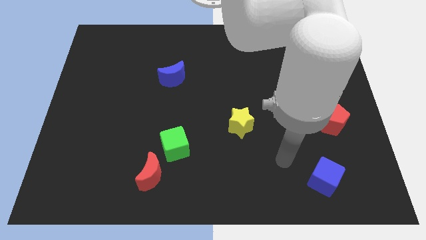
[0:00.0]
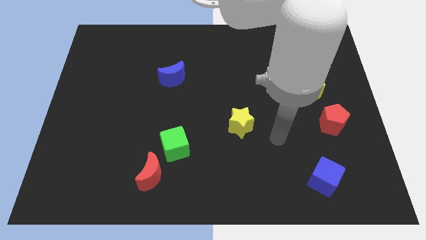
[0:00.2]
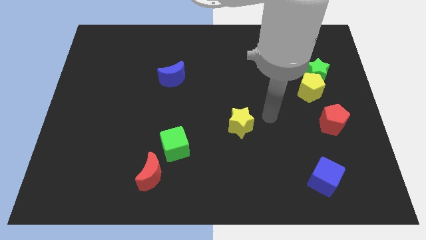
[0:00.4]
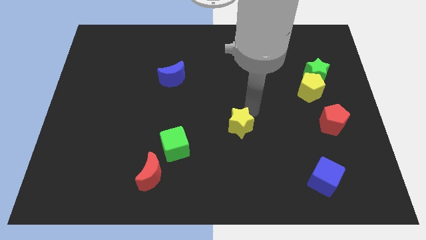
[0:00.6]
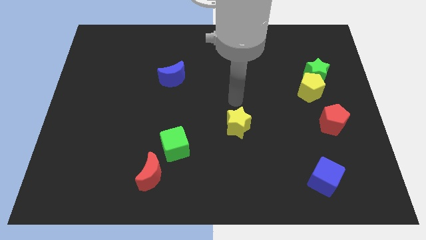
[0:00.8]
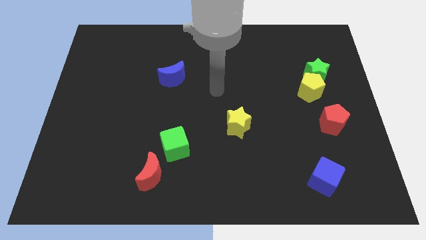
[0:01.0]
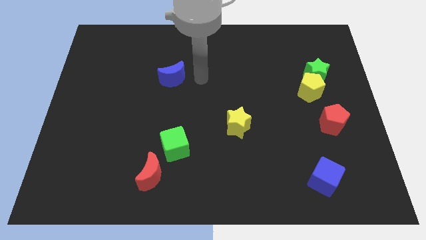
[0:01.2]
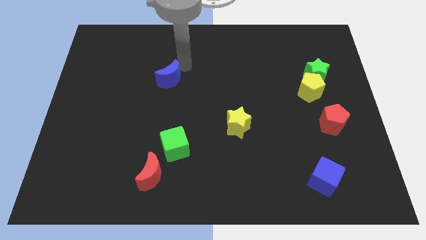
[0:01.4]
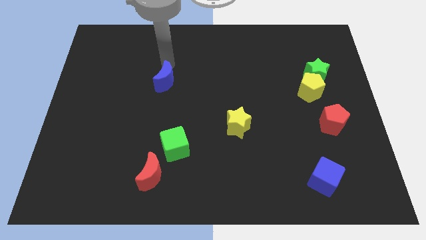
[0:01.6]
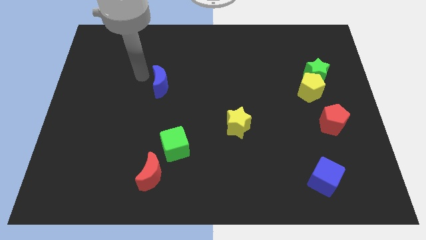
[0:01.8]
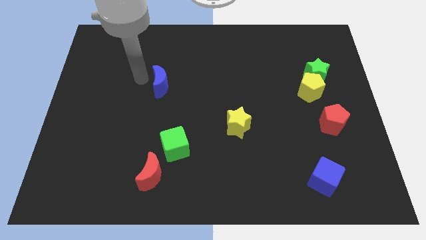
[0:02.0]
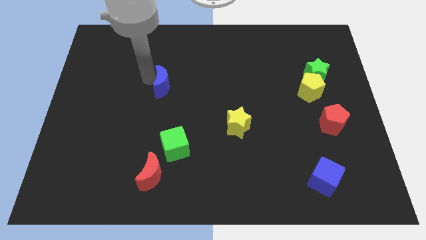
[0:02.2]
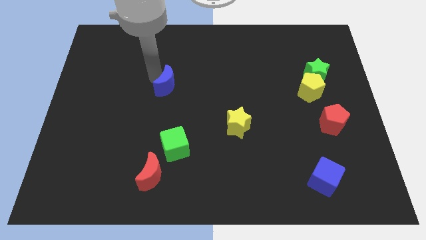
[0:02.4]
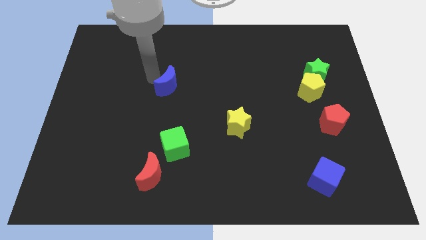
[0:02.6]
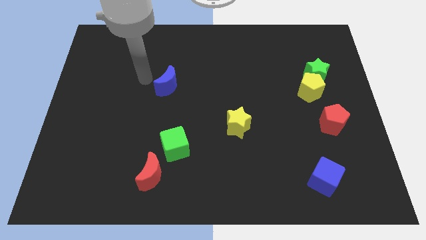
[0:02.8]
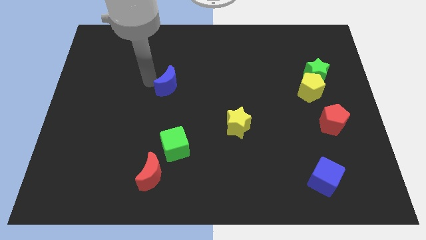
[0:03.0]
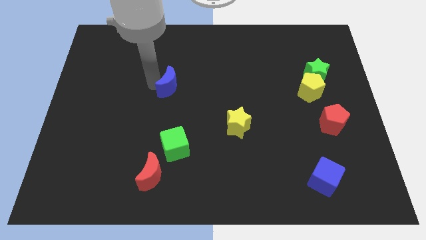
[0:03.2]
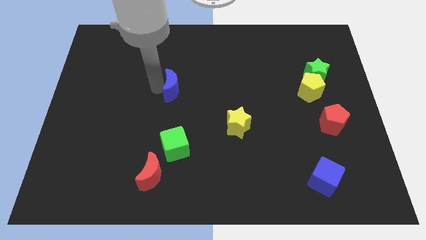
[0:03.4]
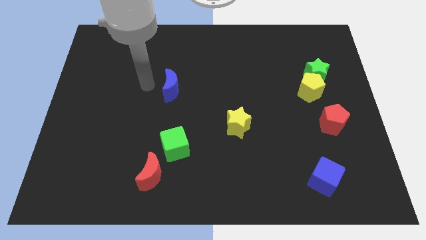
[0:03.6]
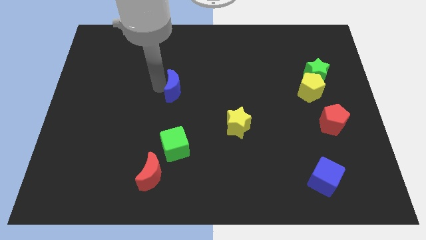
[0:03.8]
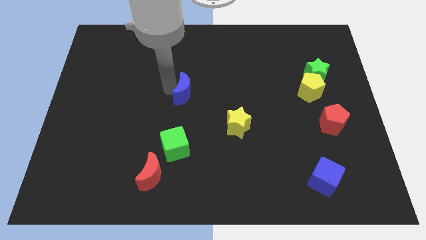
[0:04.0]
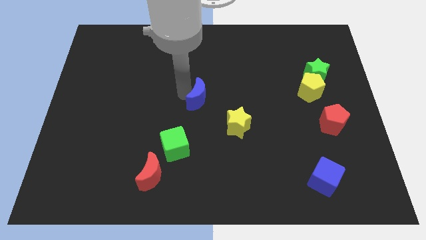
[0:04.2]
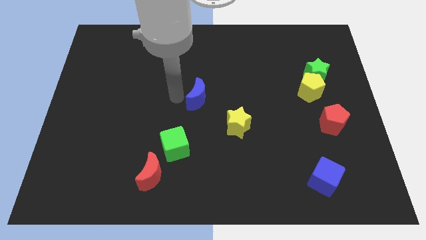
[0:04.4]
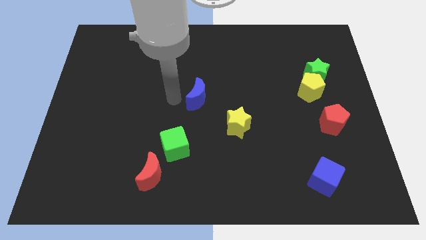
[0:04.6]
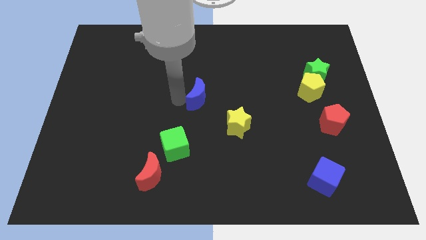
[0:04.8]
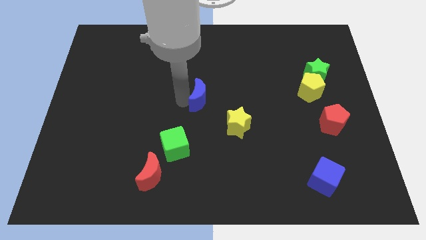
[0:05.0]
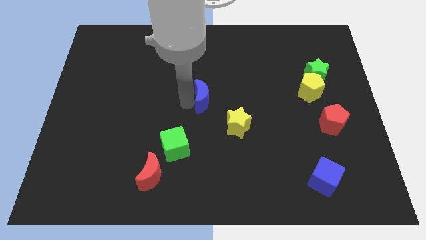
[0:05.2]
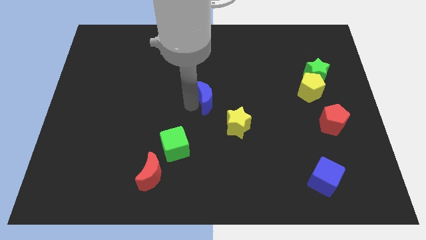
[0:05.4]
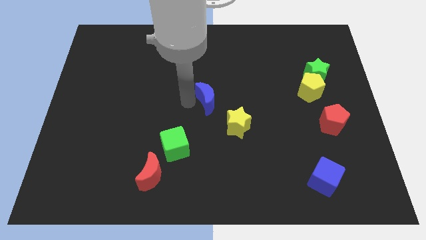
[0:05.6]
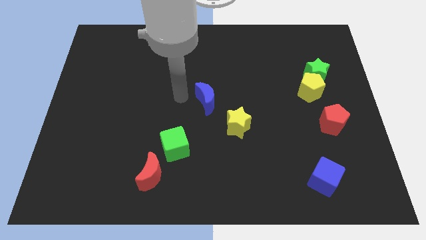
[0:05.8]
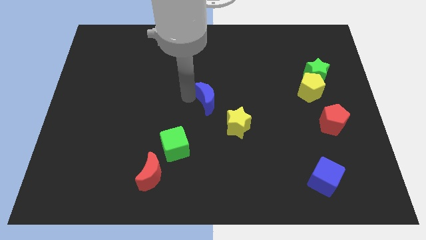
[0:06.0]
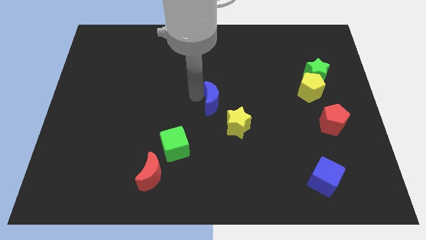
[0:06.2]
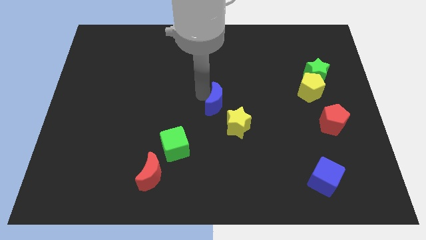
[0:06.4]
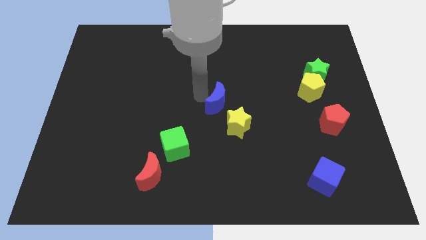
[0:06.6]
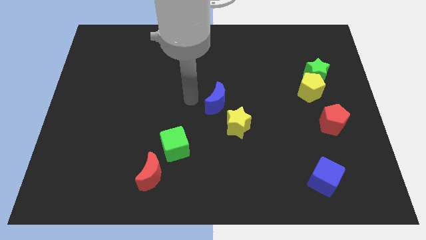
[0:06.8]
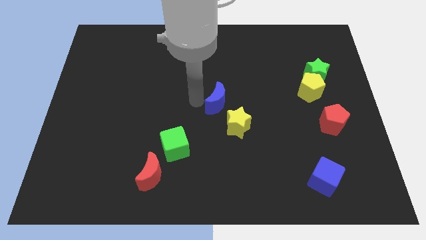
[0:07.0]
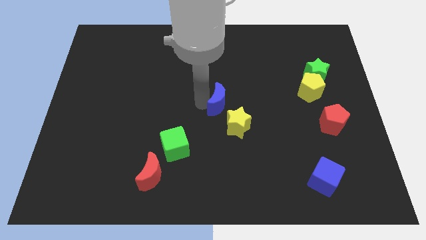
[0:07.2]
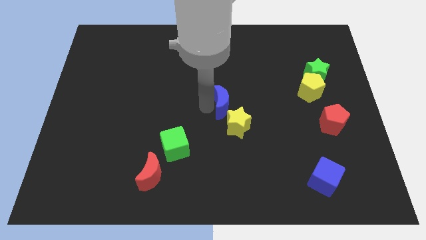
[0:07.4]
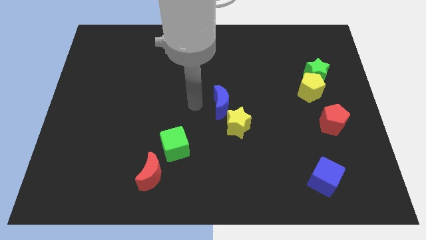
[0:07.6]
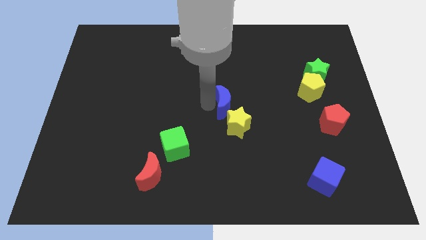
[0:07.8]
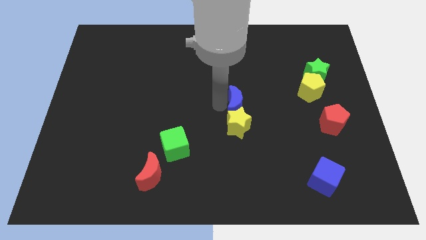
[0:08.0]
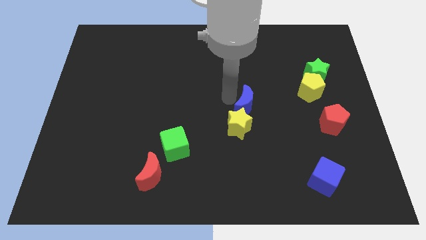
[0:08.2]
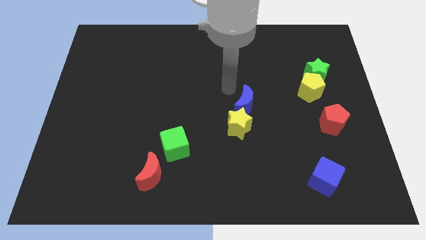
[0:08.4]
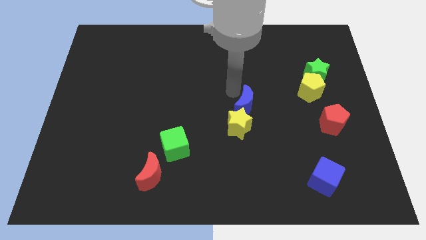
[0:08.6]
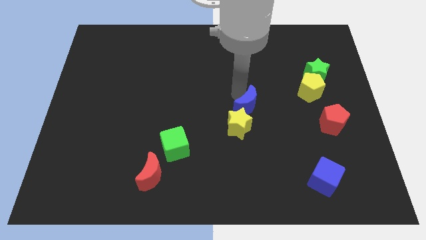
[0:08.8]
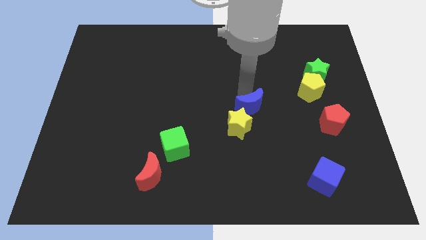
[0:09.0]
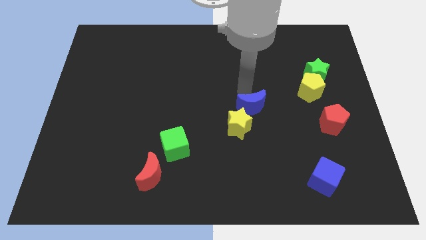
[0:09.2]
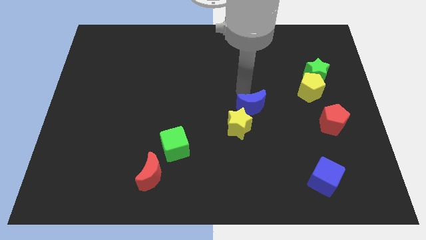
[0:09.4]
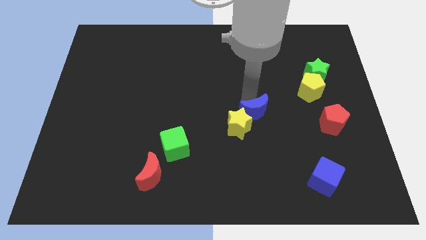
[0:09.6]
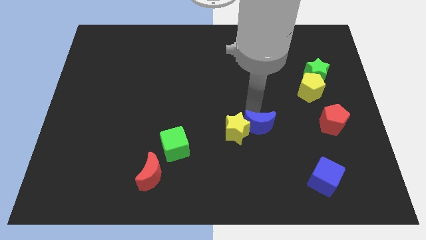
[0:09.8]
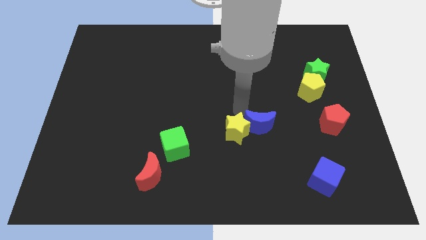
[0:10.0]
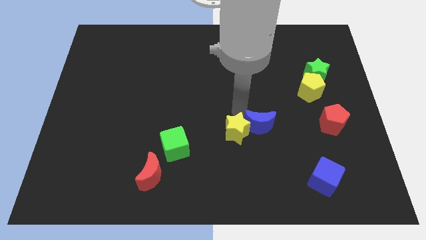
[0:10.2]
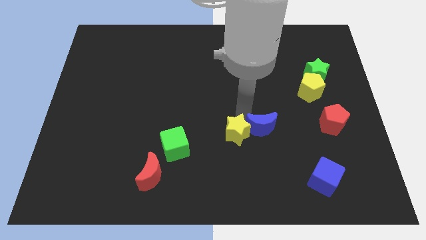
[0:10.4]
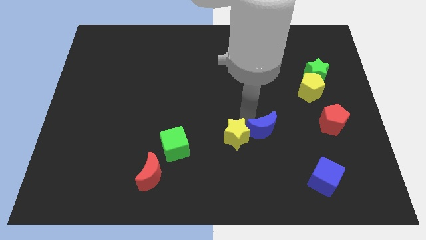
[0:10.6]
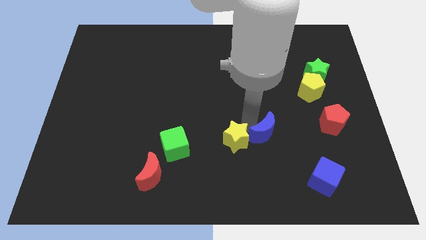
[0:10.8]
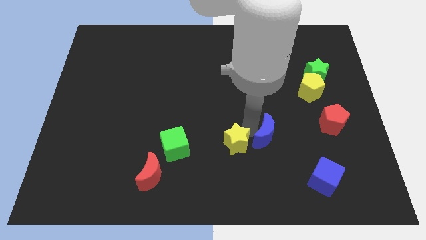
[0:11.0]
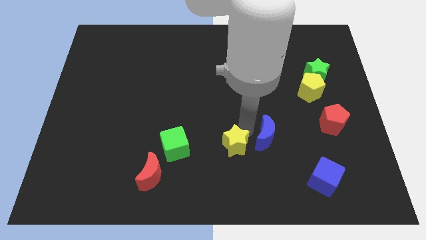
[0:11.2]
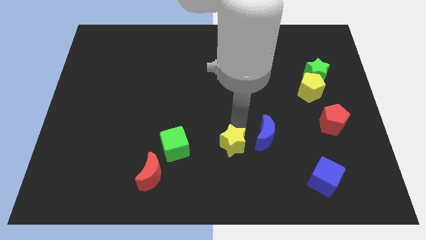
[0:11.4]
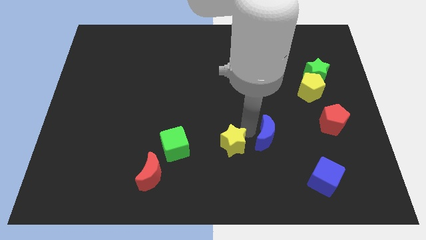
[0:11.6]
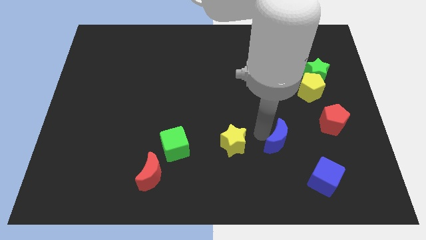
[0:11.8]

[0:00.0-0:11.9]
slide the blue moon to the top left of the blue cube

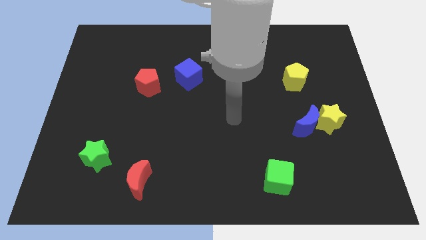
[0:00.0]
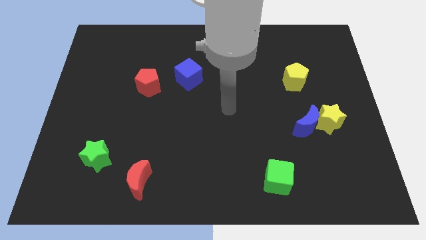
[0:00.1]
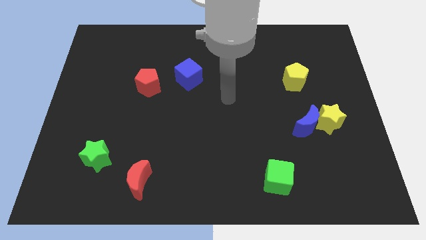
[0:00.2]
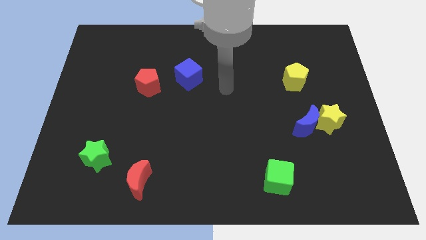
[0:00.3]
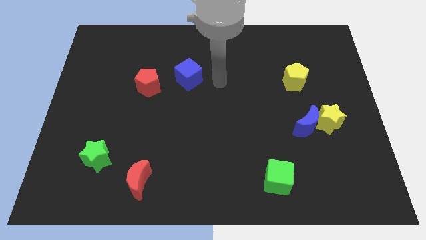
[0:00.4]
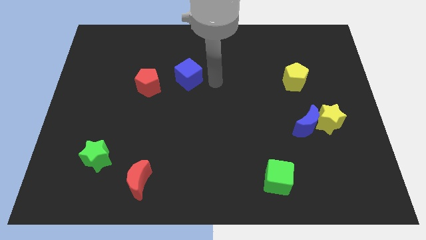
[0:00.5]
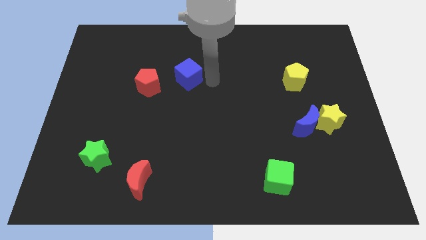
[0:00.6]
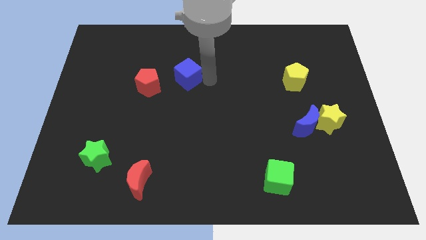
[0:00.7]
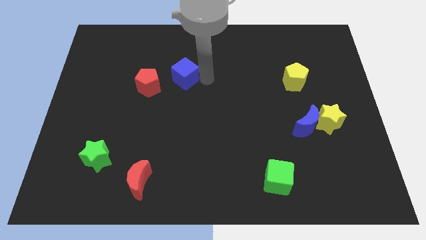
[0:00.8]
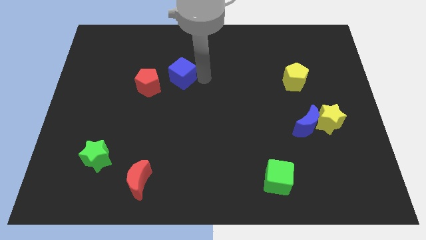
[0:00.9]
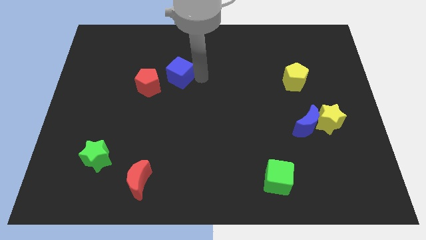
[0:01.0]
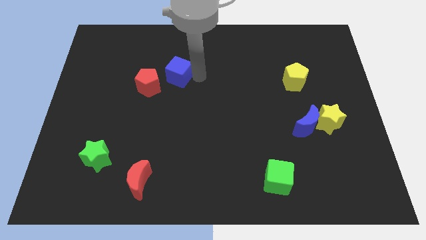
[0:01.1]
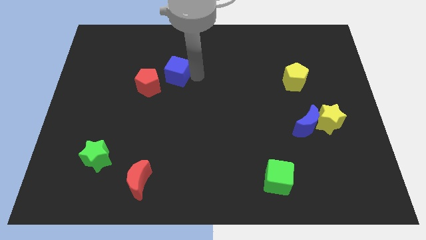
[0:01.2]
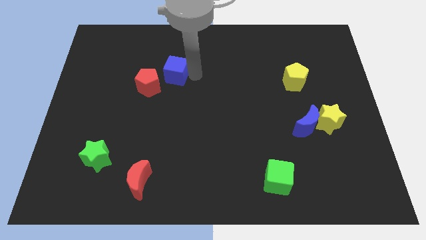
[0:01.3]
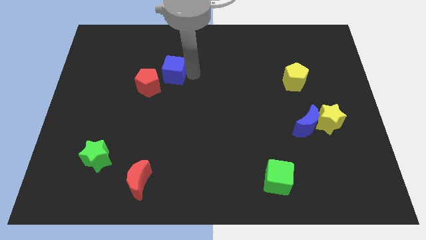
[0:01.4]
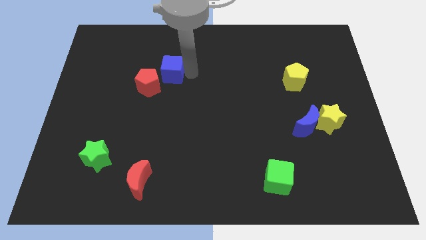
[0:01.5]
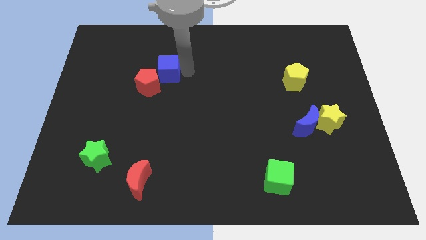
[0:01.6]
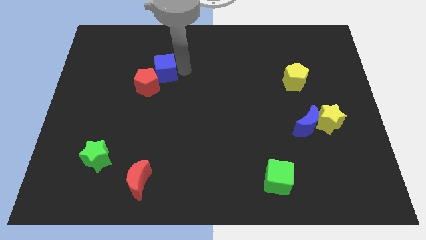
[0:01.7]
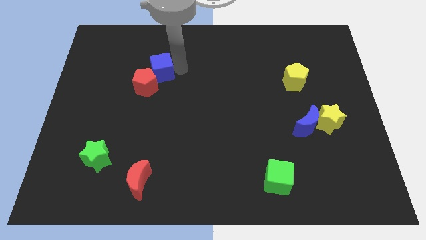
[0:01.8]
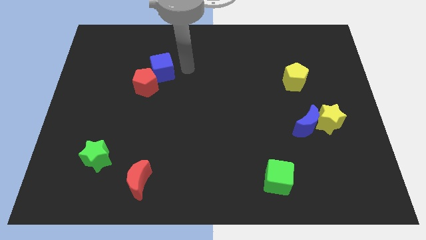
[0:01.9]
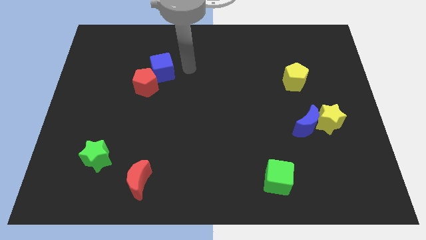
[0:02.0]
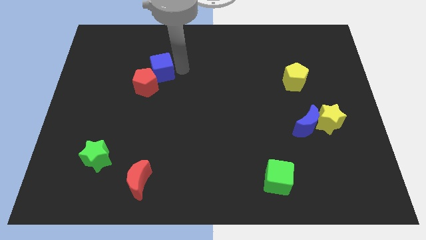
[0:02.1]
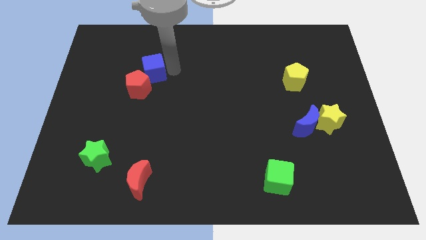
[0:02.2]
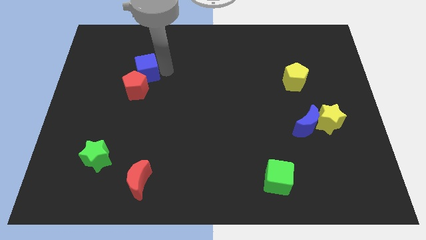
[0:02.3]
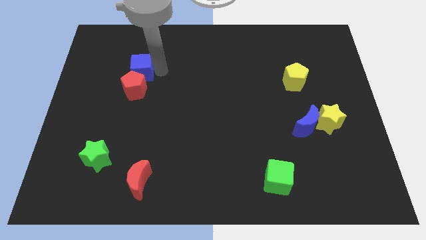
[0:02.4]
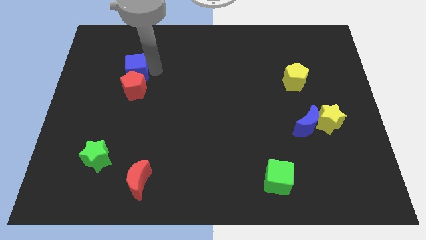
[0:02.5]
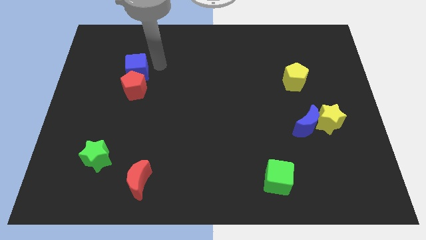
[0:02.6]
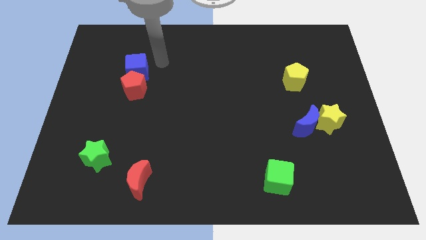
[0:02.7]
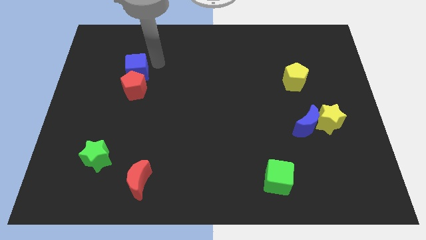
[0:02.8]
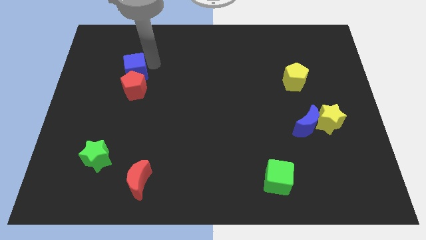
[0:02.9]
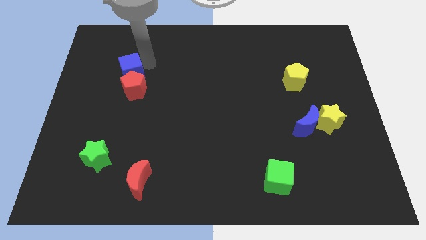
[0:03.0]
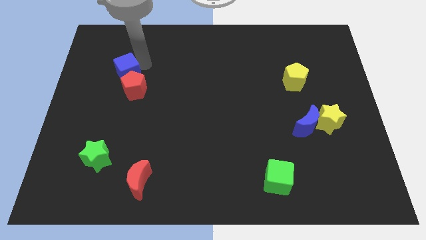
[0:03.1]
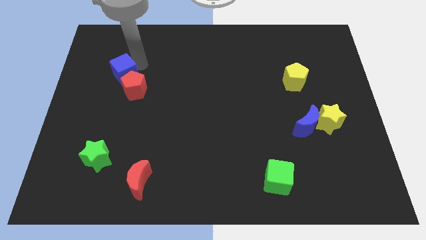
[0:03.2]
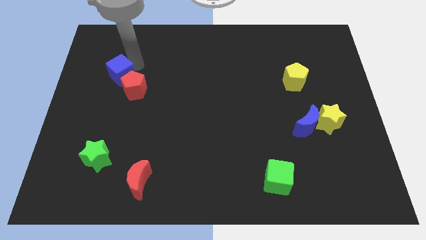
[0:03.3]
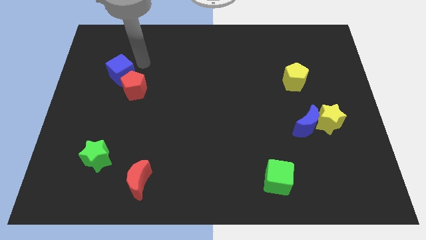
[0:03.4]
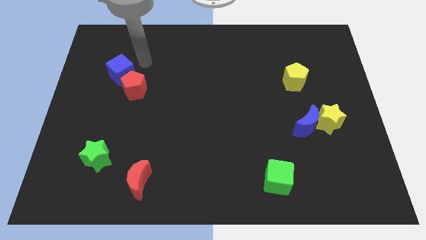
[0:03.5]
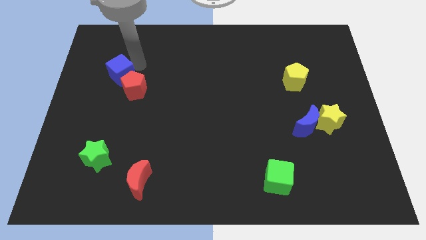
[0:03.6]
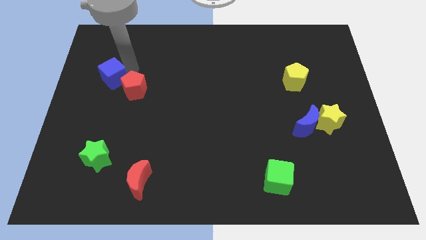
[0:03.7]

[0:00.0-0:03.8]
move the blue cube left of the red pentagon
